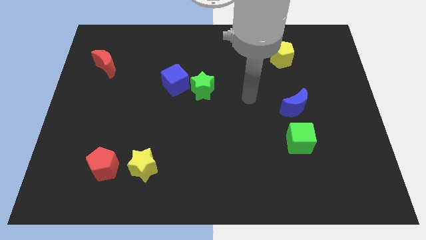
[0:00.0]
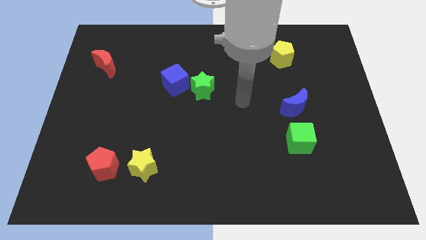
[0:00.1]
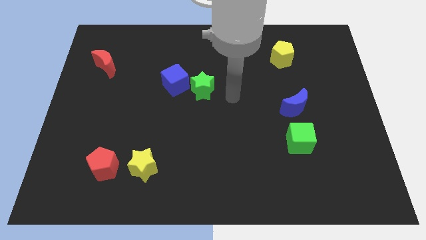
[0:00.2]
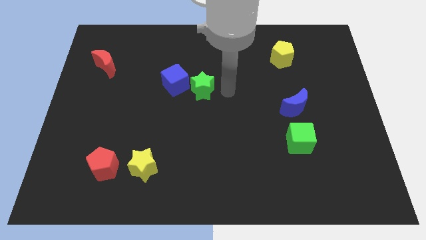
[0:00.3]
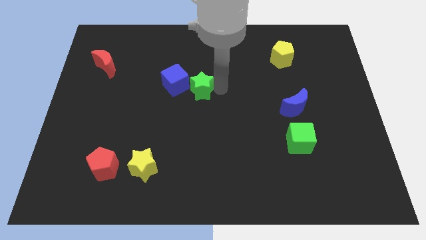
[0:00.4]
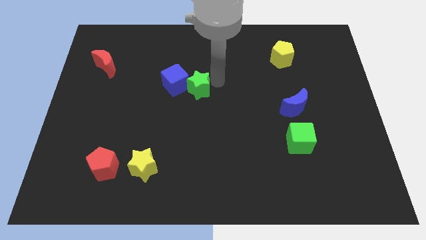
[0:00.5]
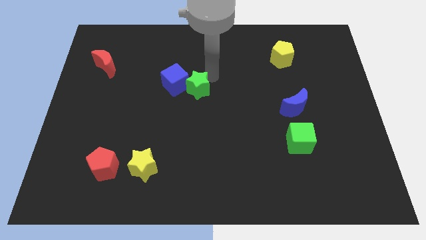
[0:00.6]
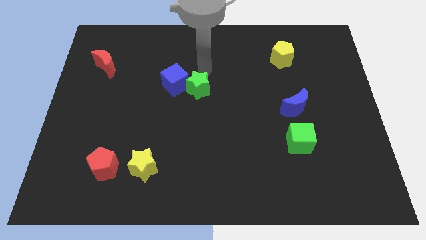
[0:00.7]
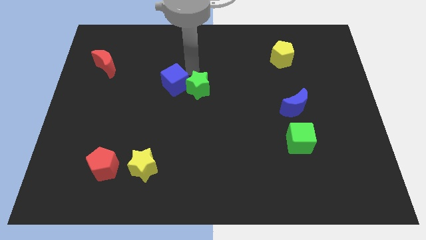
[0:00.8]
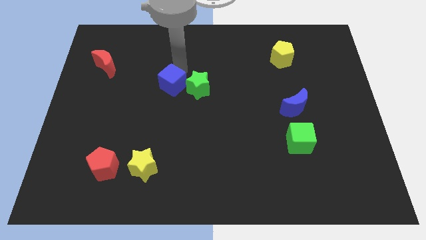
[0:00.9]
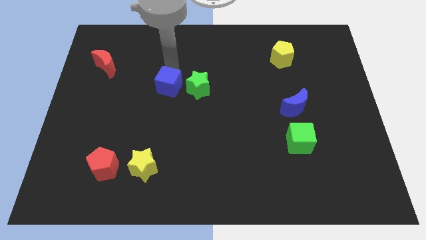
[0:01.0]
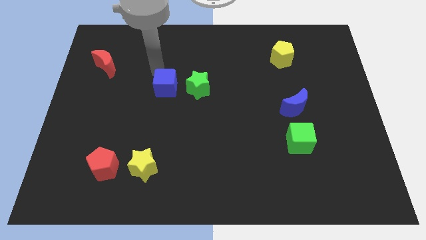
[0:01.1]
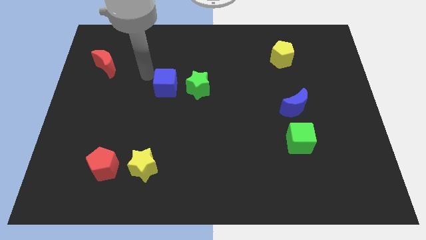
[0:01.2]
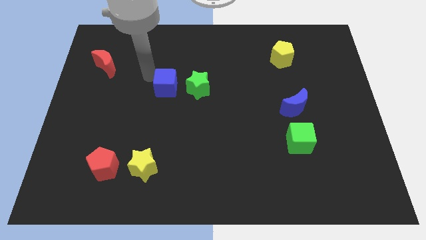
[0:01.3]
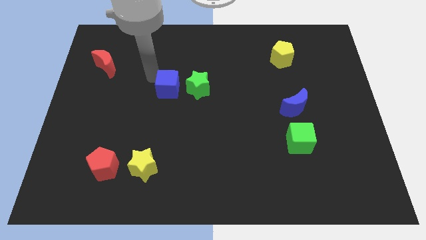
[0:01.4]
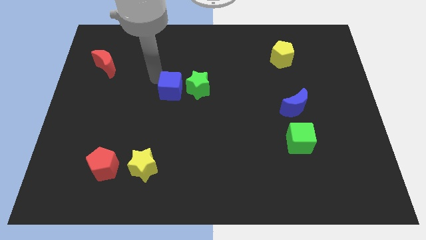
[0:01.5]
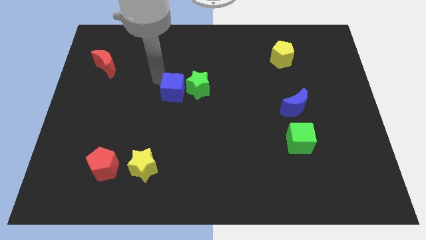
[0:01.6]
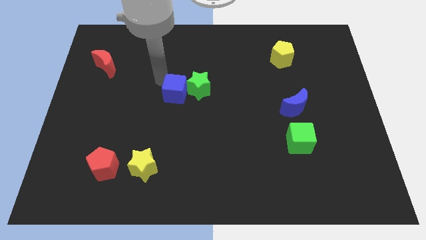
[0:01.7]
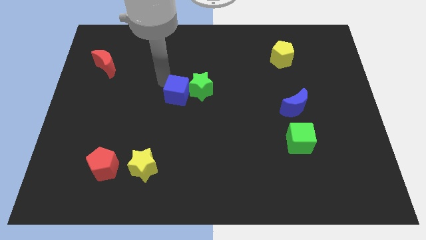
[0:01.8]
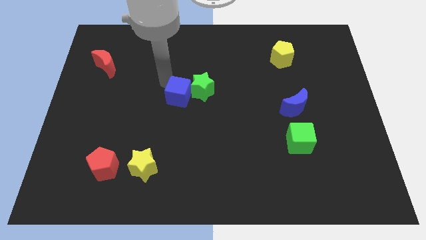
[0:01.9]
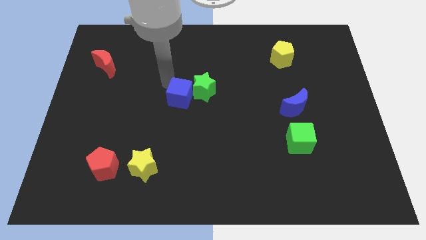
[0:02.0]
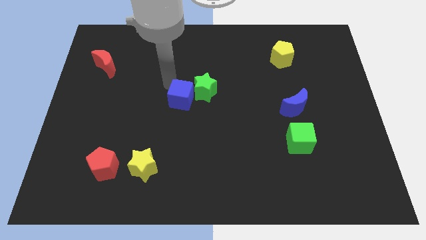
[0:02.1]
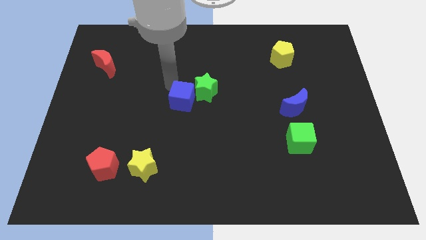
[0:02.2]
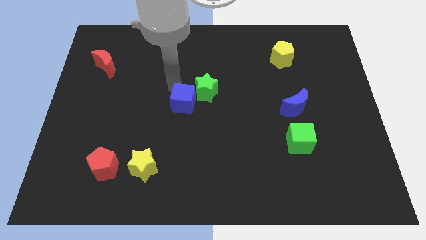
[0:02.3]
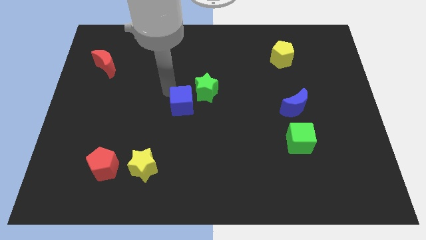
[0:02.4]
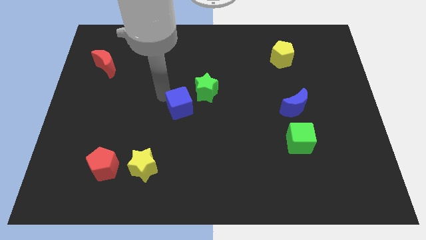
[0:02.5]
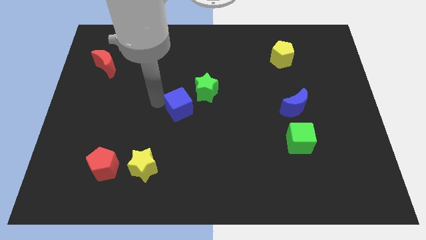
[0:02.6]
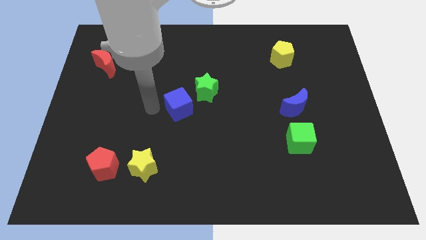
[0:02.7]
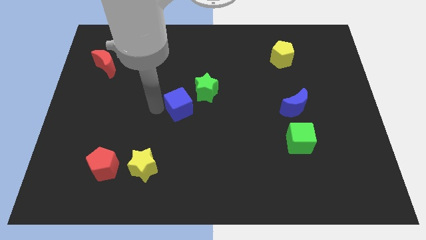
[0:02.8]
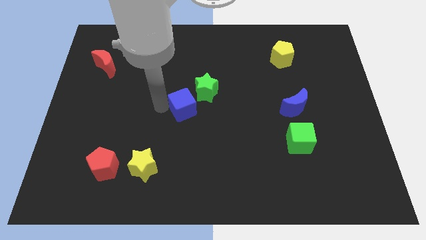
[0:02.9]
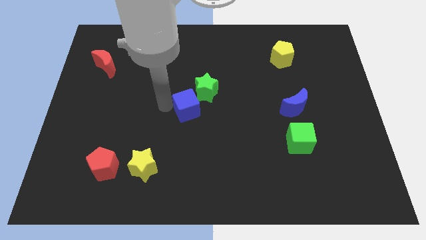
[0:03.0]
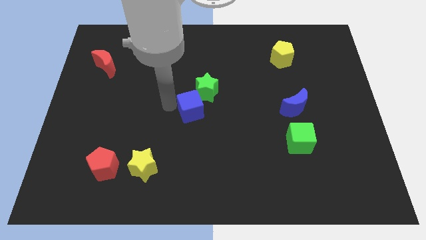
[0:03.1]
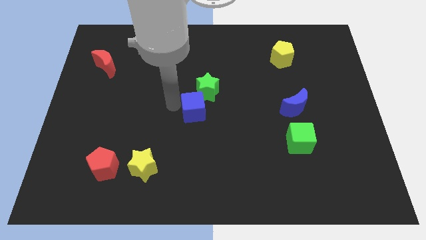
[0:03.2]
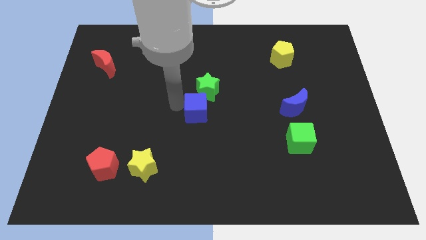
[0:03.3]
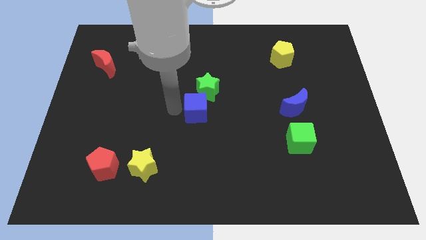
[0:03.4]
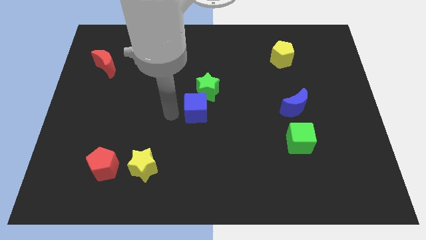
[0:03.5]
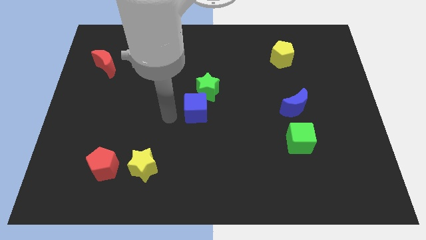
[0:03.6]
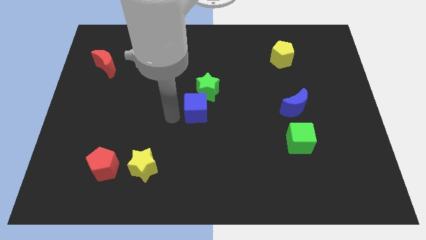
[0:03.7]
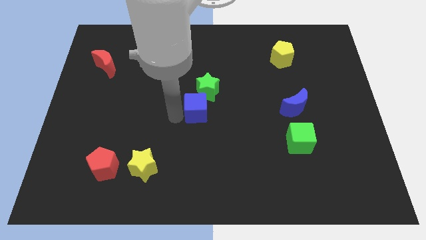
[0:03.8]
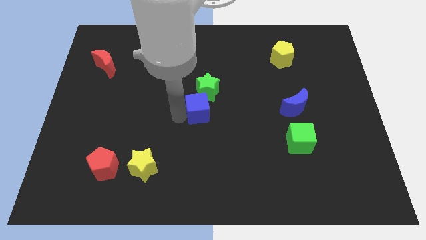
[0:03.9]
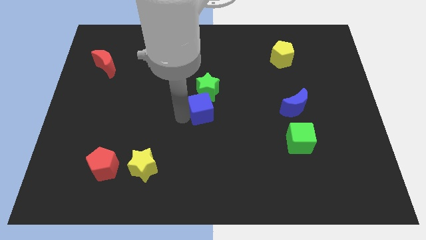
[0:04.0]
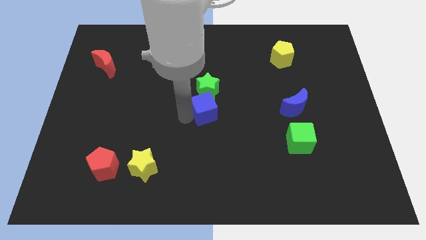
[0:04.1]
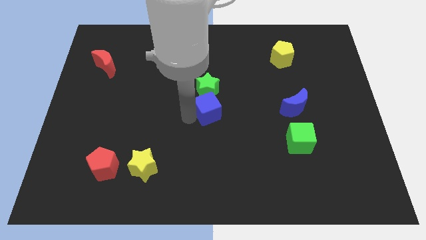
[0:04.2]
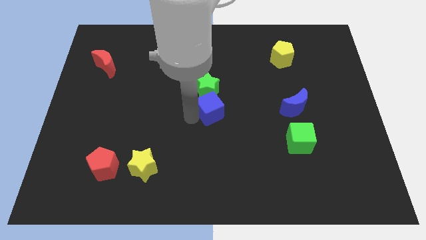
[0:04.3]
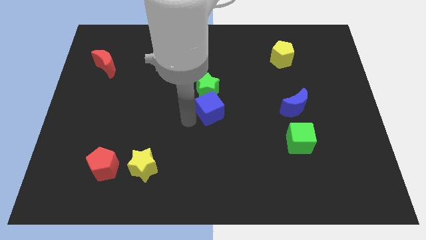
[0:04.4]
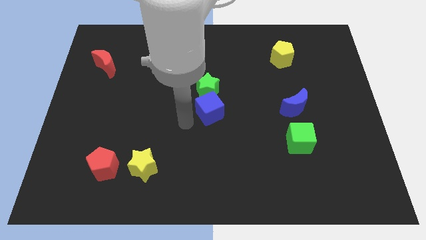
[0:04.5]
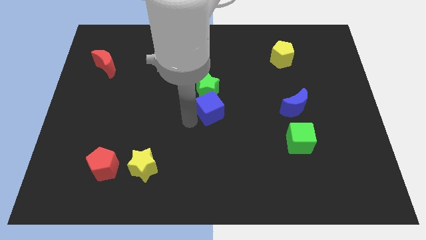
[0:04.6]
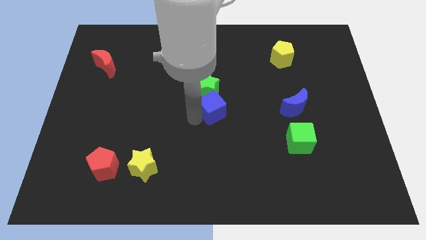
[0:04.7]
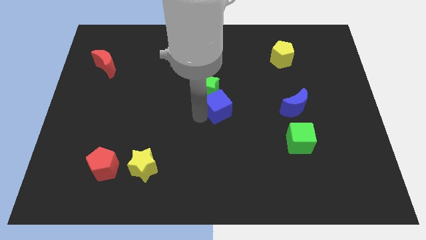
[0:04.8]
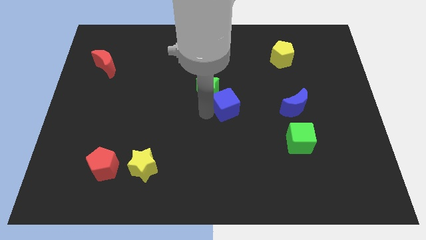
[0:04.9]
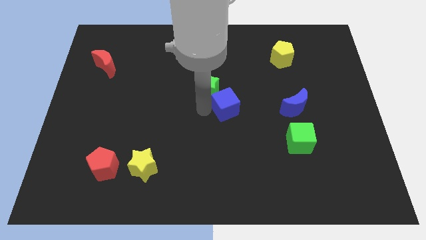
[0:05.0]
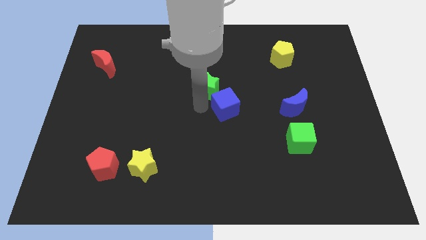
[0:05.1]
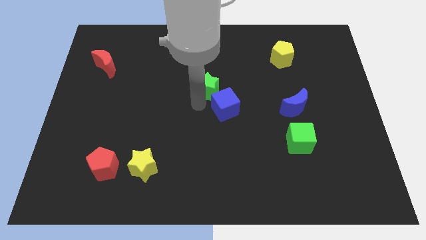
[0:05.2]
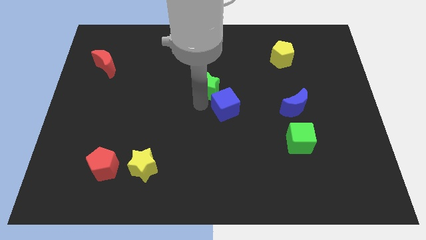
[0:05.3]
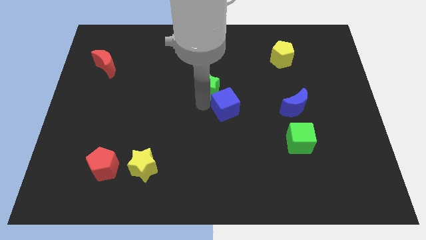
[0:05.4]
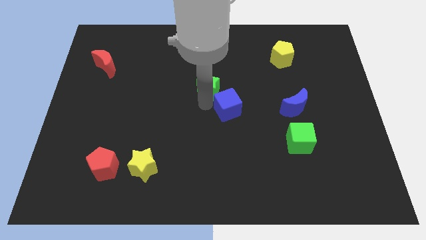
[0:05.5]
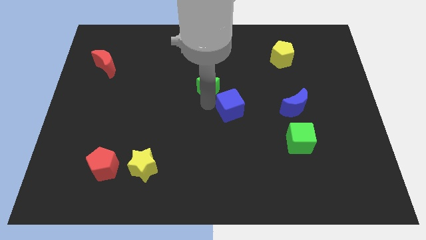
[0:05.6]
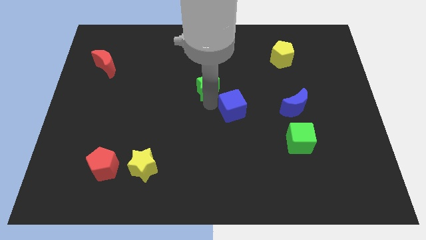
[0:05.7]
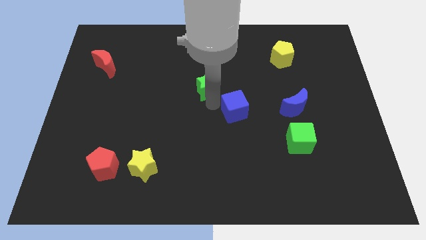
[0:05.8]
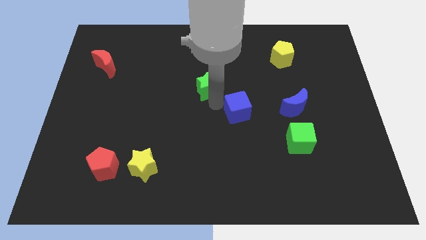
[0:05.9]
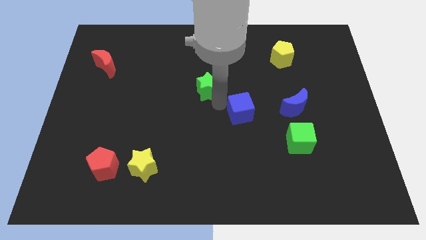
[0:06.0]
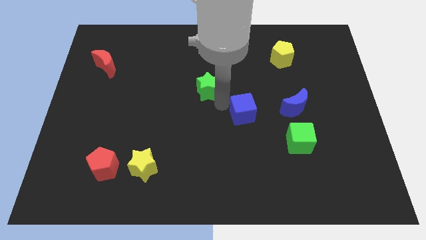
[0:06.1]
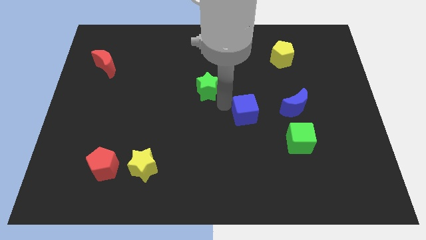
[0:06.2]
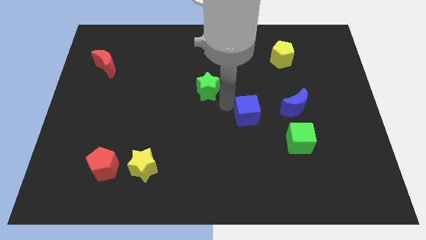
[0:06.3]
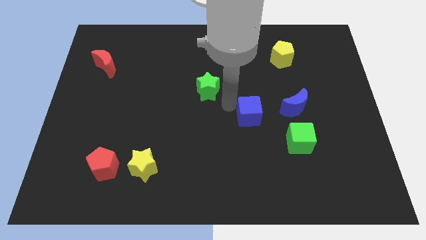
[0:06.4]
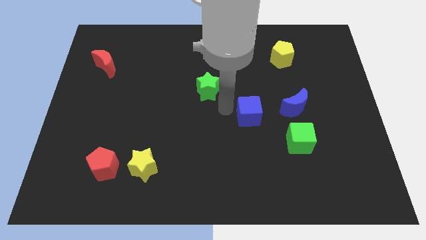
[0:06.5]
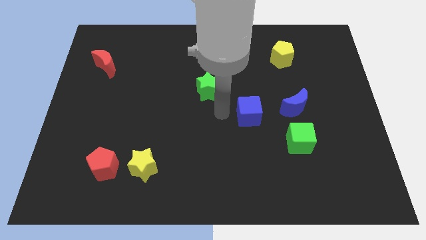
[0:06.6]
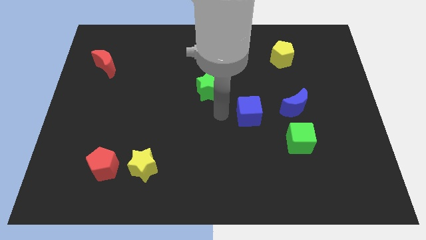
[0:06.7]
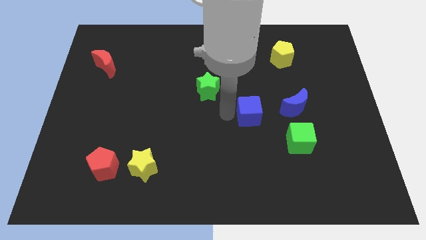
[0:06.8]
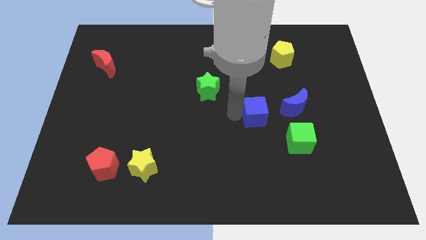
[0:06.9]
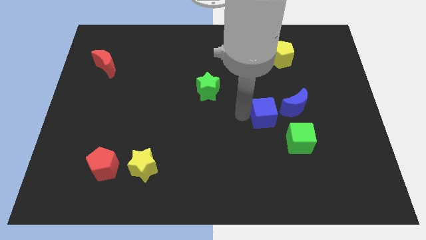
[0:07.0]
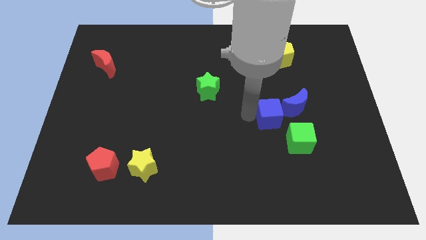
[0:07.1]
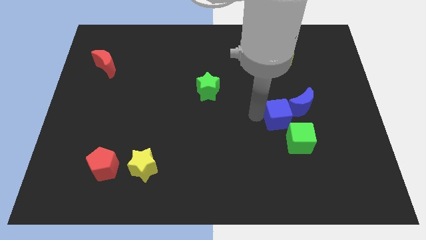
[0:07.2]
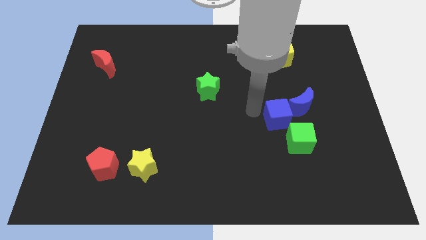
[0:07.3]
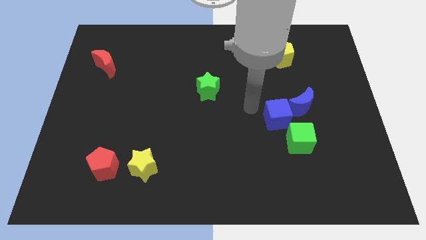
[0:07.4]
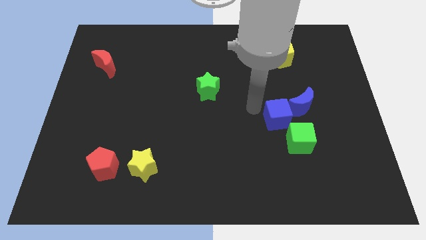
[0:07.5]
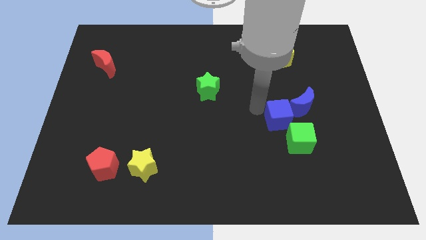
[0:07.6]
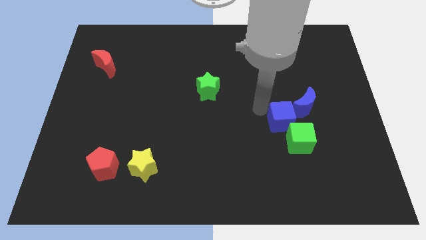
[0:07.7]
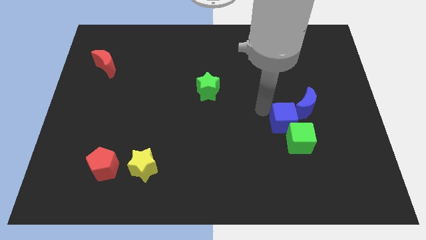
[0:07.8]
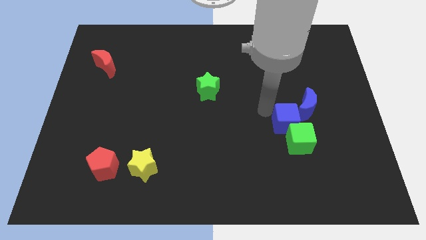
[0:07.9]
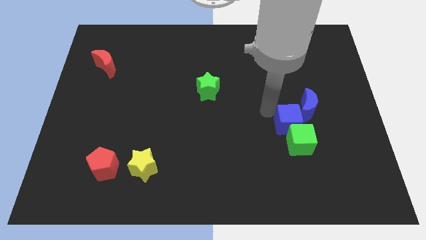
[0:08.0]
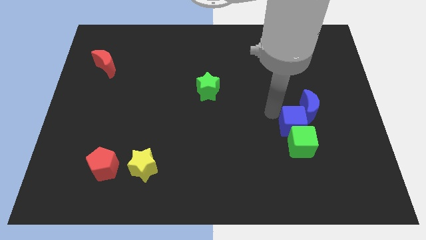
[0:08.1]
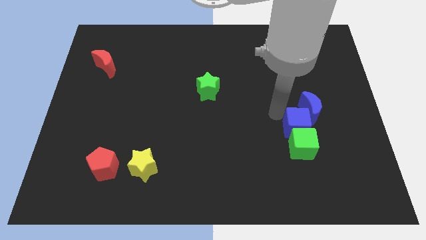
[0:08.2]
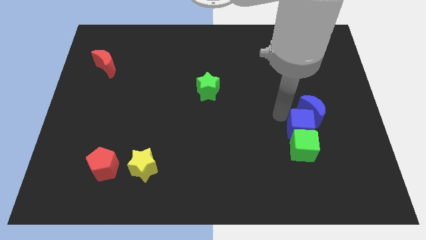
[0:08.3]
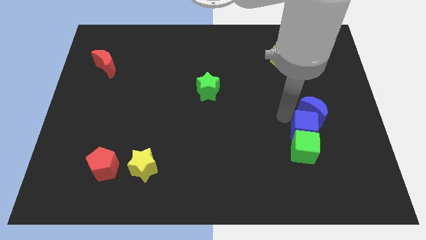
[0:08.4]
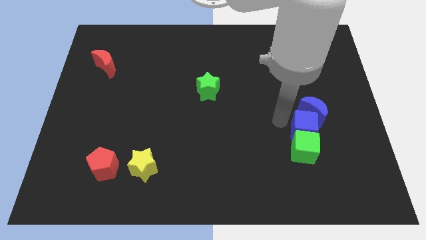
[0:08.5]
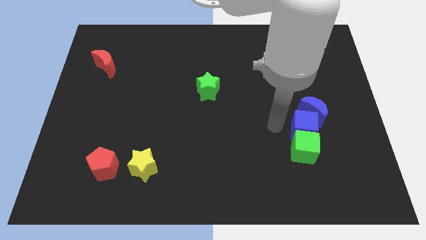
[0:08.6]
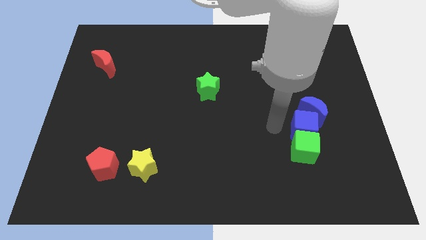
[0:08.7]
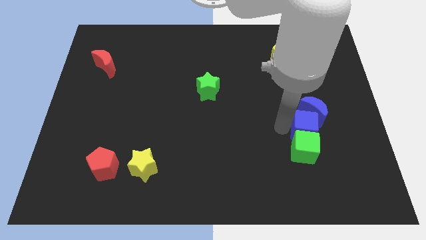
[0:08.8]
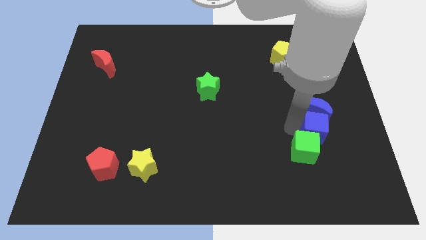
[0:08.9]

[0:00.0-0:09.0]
slide the blue cube to the bottom right side of the blue moon
